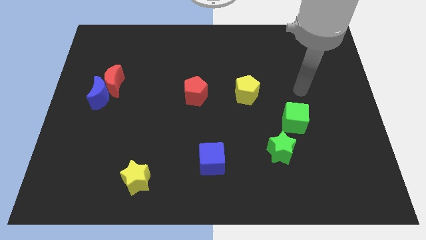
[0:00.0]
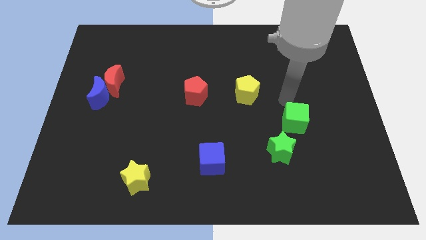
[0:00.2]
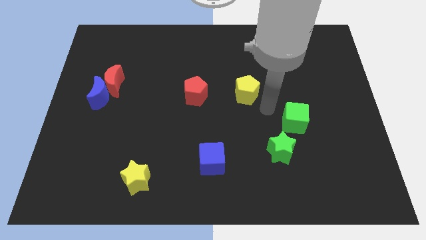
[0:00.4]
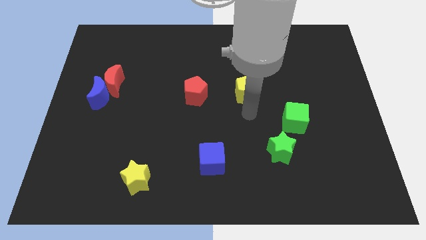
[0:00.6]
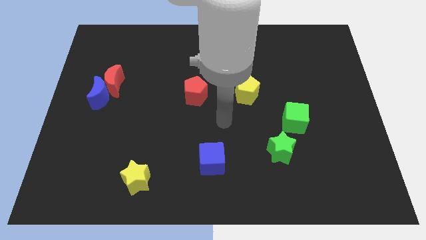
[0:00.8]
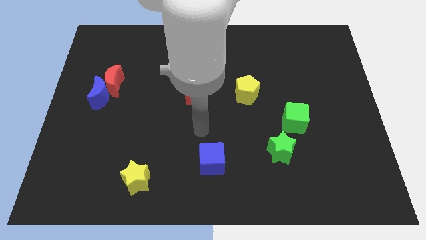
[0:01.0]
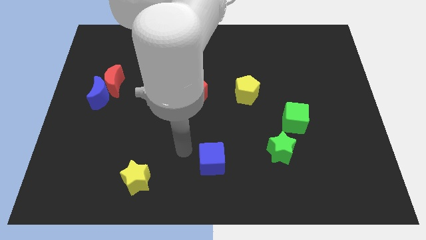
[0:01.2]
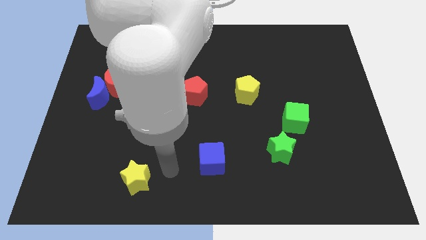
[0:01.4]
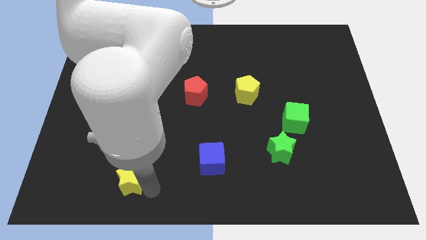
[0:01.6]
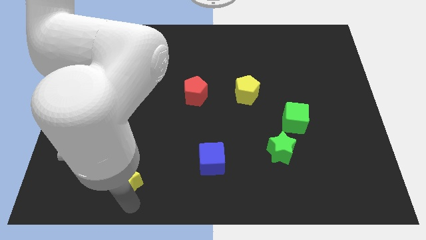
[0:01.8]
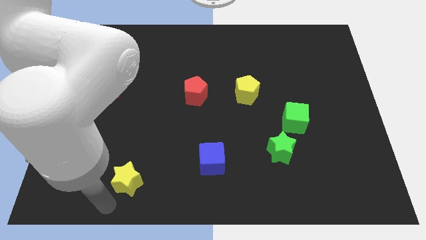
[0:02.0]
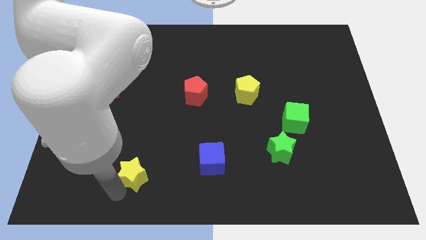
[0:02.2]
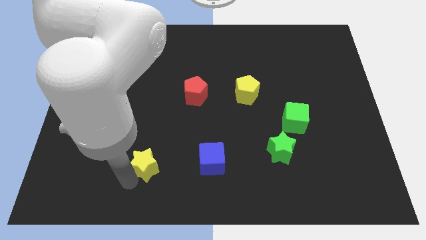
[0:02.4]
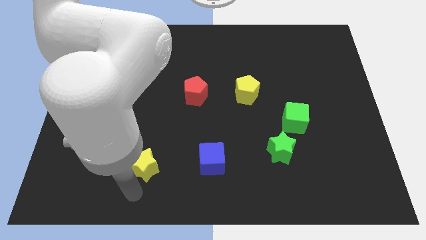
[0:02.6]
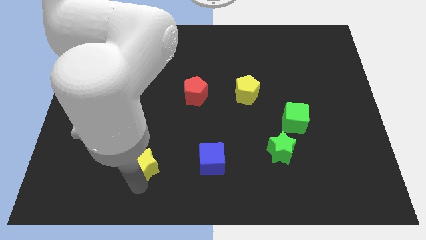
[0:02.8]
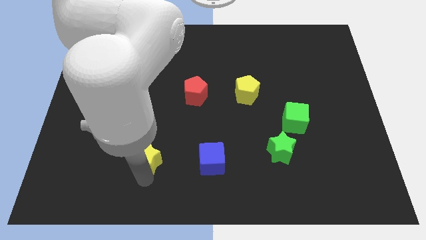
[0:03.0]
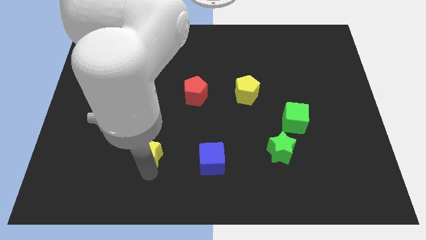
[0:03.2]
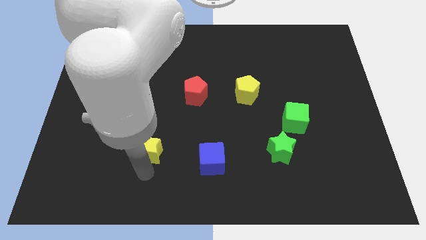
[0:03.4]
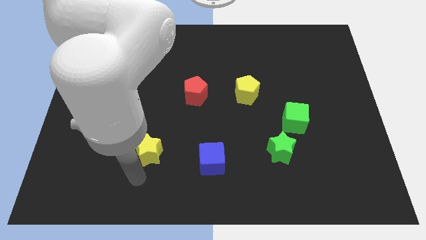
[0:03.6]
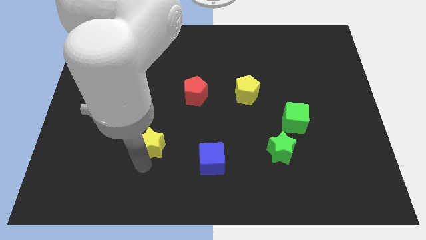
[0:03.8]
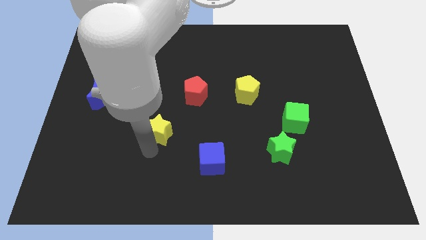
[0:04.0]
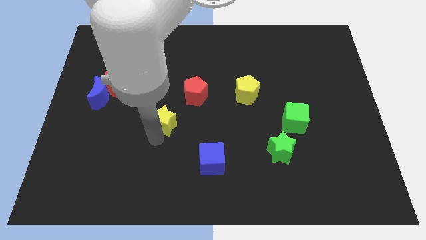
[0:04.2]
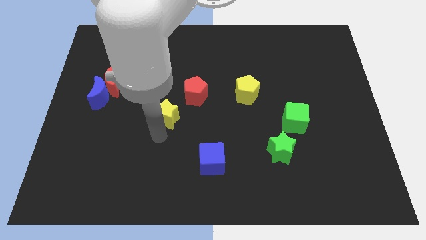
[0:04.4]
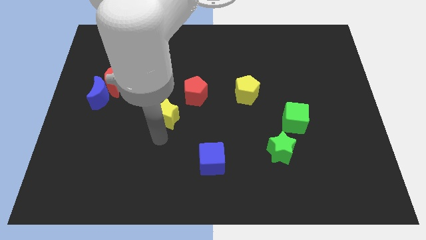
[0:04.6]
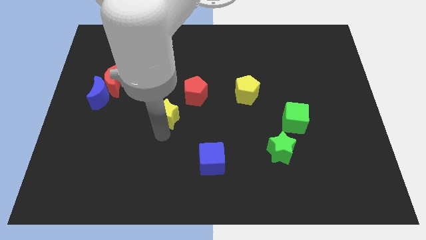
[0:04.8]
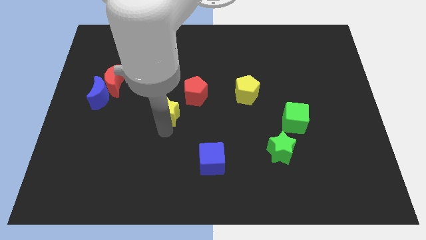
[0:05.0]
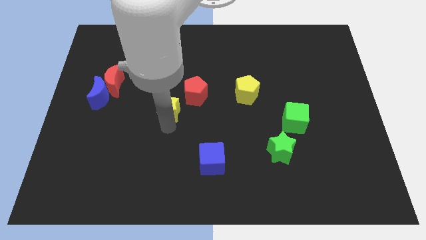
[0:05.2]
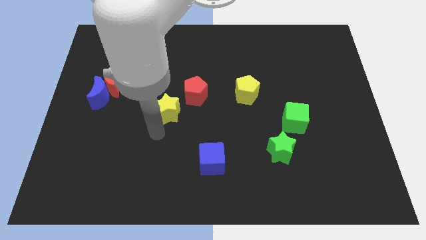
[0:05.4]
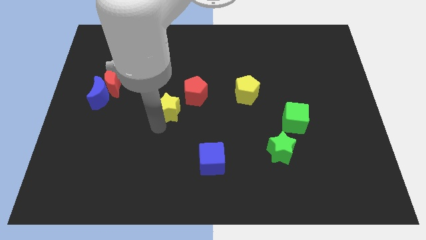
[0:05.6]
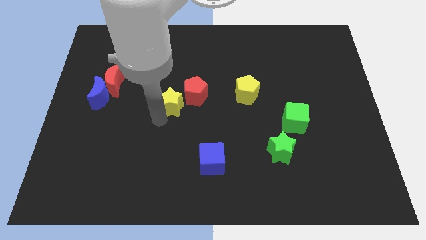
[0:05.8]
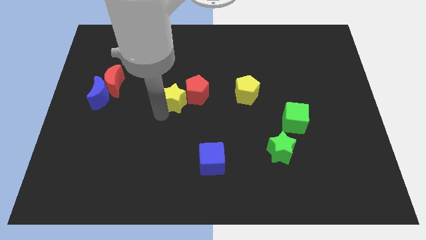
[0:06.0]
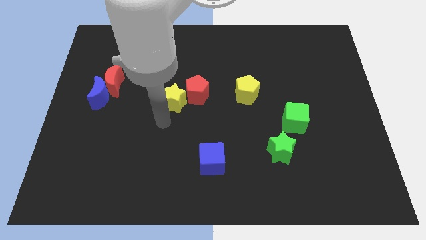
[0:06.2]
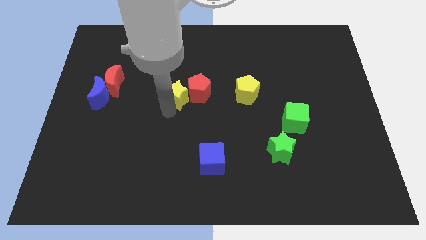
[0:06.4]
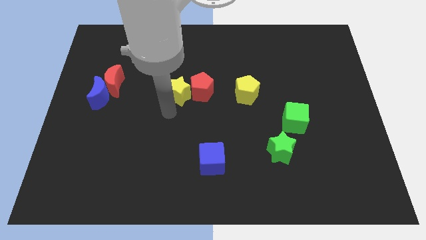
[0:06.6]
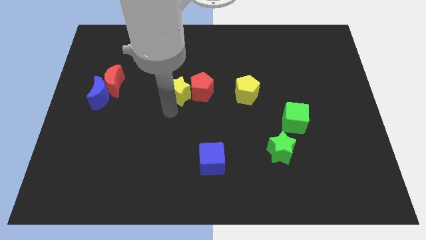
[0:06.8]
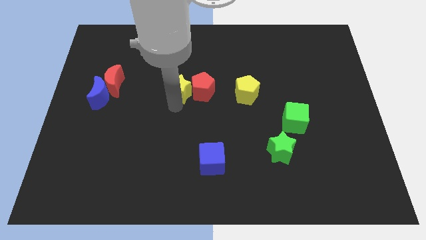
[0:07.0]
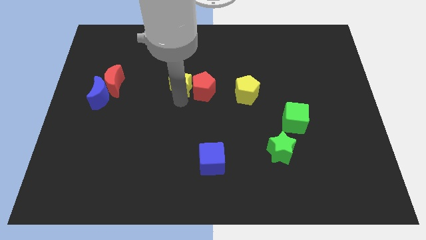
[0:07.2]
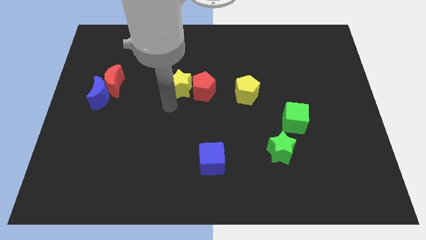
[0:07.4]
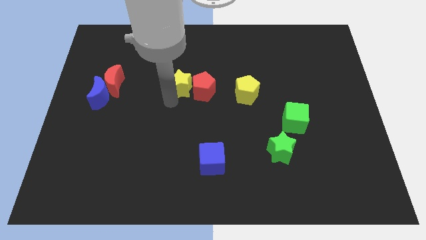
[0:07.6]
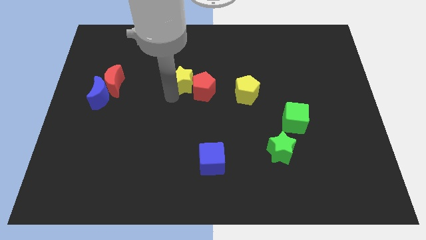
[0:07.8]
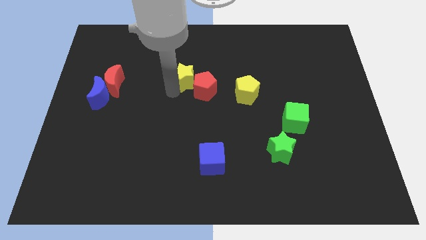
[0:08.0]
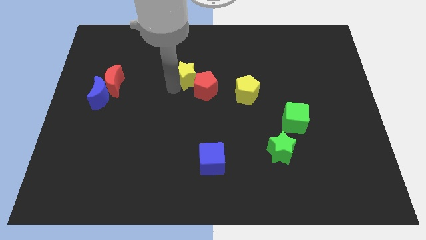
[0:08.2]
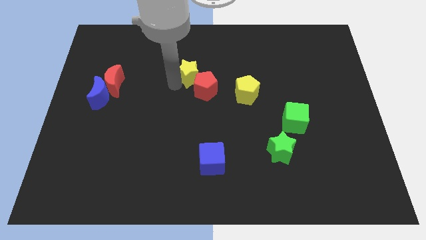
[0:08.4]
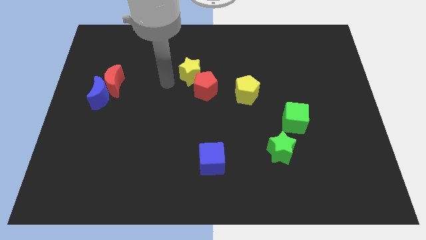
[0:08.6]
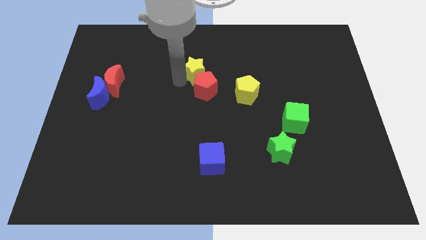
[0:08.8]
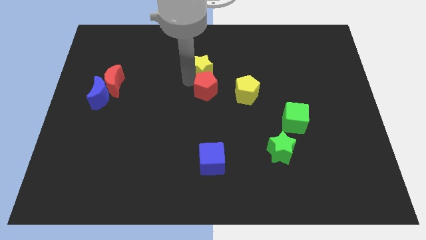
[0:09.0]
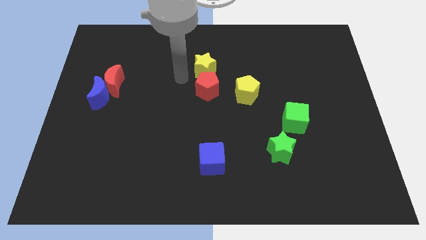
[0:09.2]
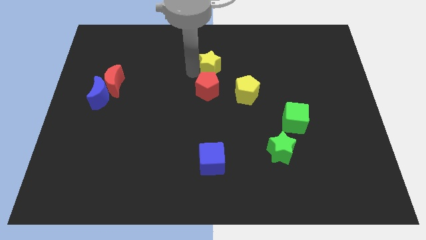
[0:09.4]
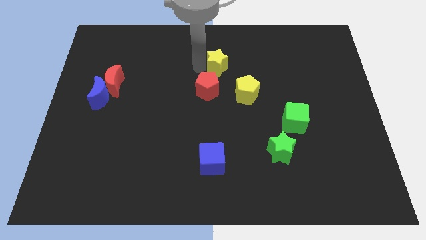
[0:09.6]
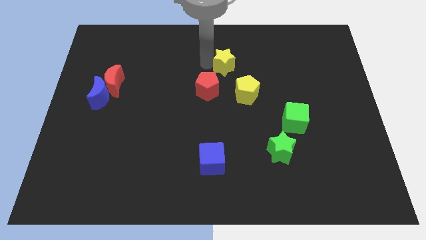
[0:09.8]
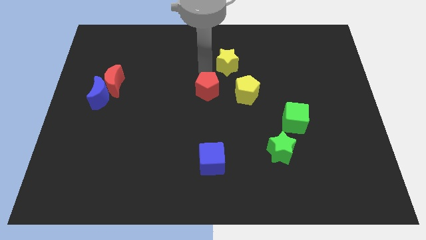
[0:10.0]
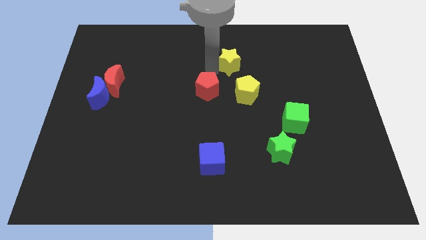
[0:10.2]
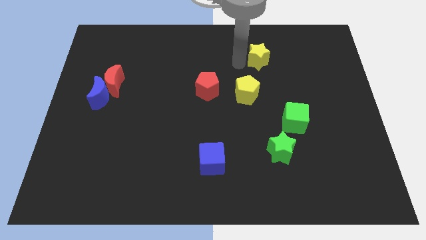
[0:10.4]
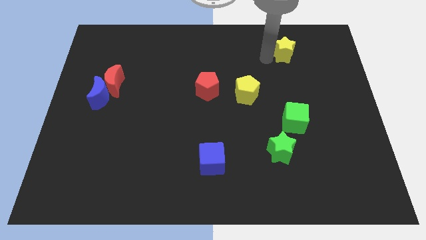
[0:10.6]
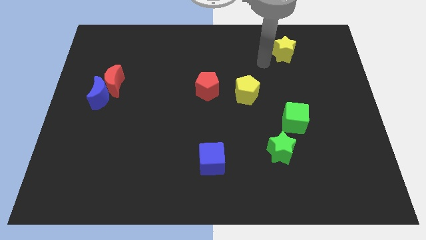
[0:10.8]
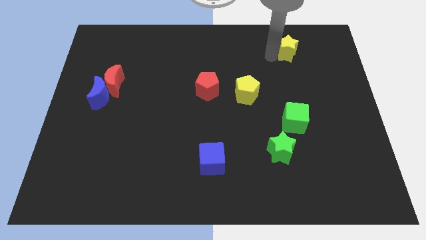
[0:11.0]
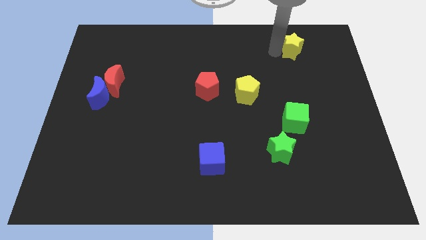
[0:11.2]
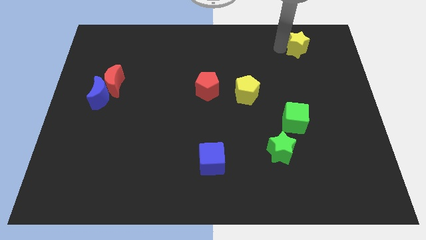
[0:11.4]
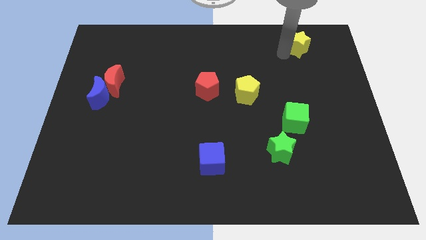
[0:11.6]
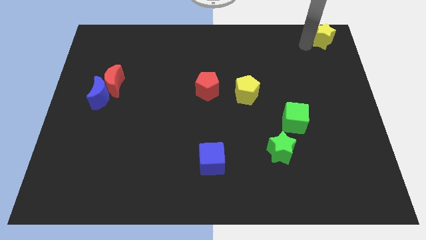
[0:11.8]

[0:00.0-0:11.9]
move the yellow star to the top right corner
